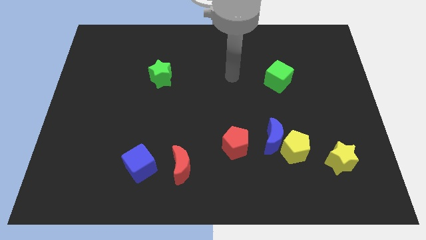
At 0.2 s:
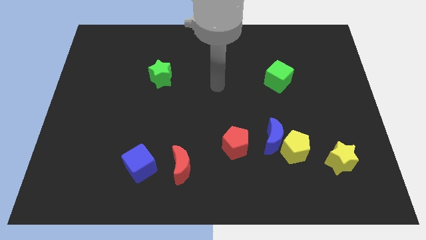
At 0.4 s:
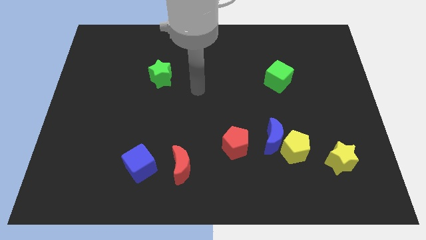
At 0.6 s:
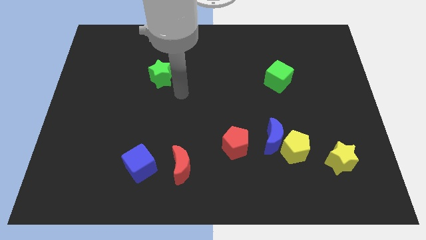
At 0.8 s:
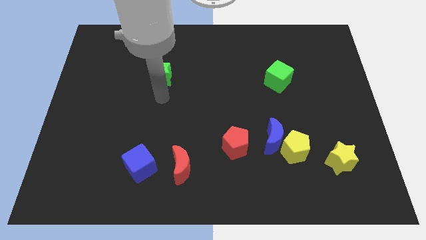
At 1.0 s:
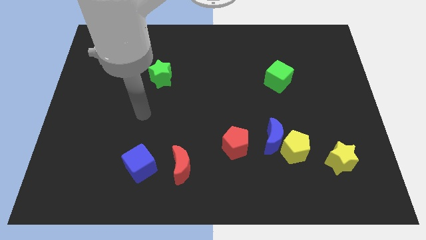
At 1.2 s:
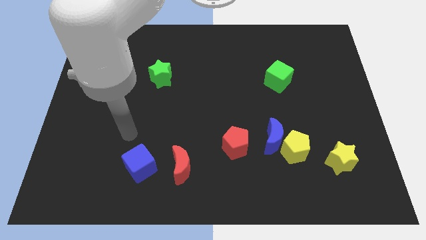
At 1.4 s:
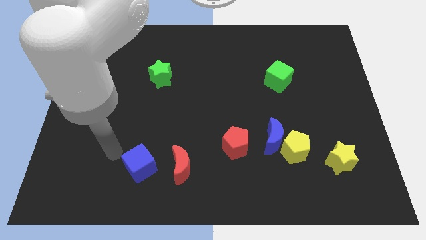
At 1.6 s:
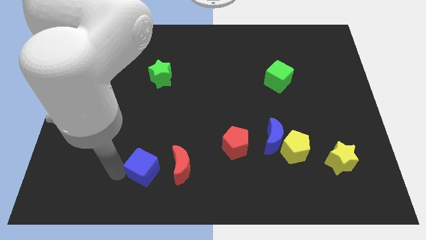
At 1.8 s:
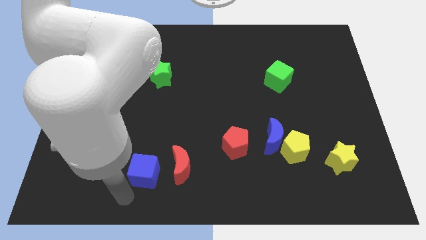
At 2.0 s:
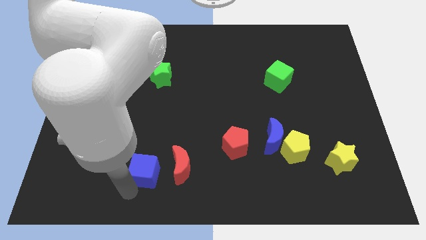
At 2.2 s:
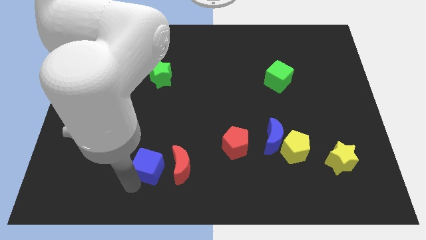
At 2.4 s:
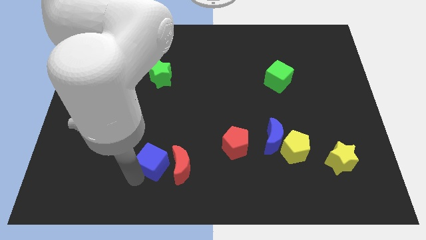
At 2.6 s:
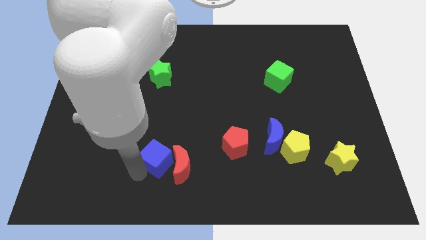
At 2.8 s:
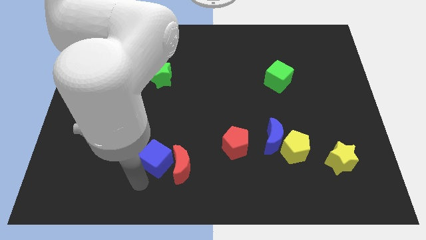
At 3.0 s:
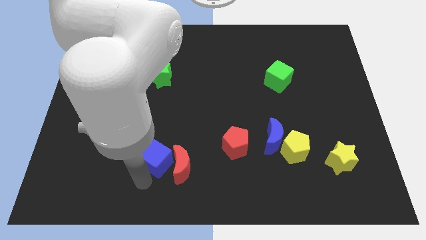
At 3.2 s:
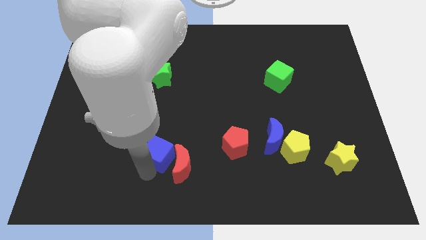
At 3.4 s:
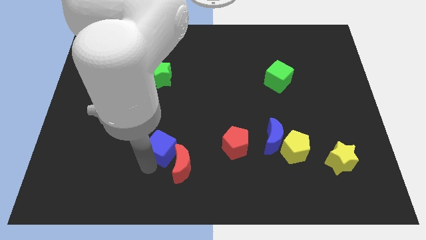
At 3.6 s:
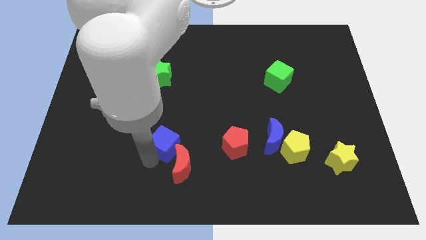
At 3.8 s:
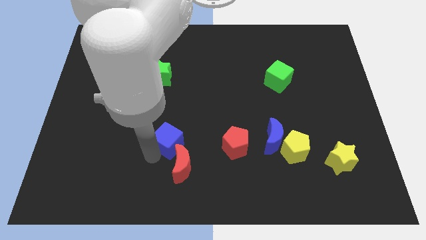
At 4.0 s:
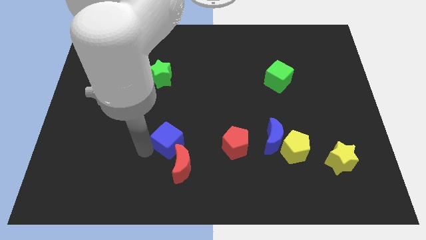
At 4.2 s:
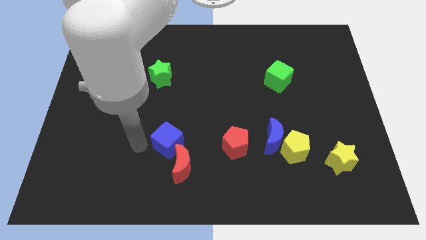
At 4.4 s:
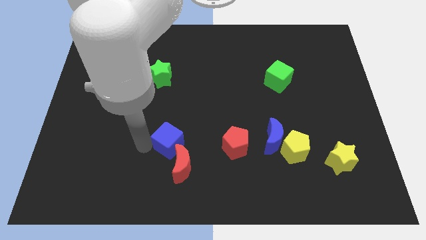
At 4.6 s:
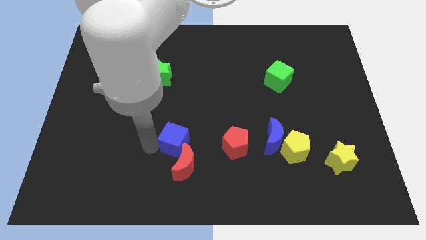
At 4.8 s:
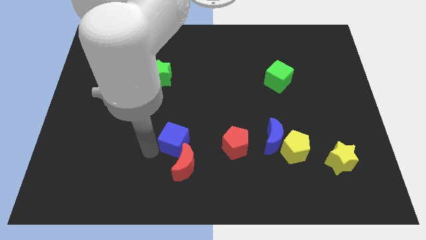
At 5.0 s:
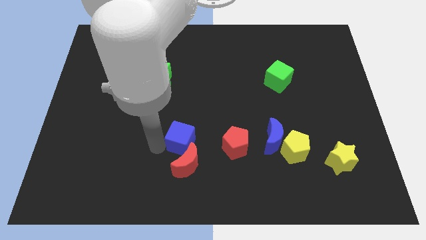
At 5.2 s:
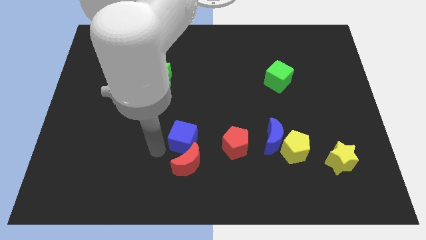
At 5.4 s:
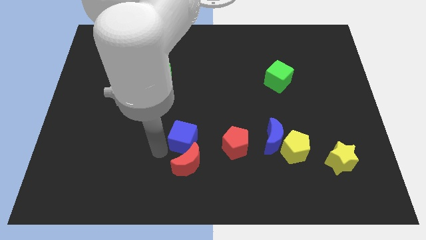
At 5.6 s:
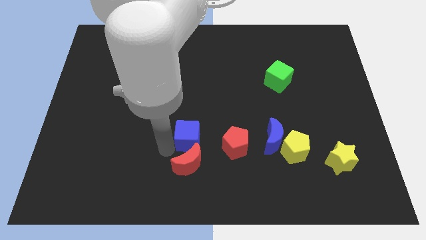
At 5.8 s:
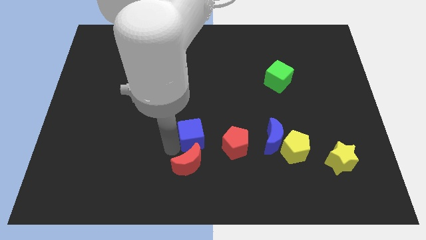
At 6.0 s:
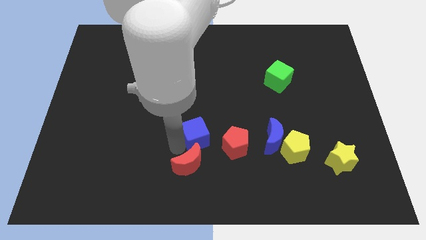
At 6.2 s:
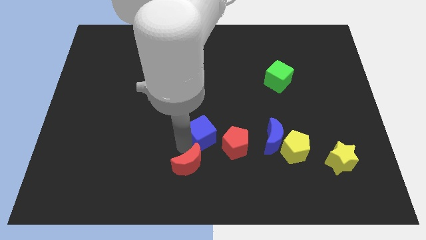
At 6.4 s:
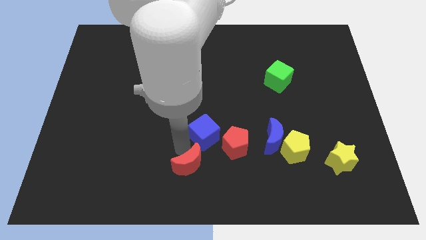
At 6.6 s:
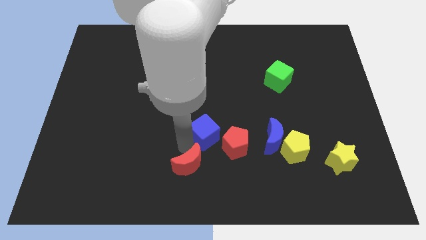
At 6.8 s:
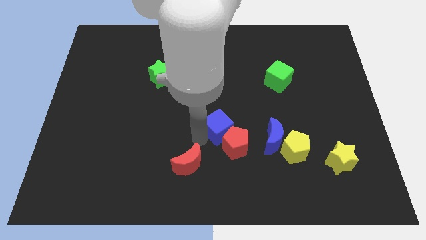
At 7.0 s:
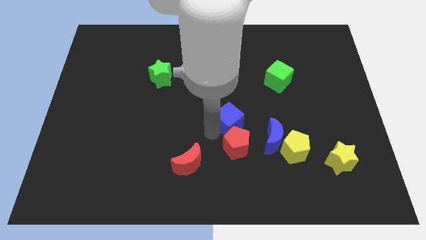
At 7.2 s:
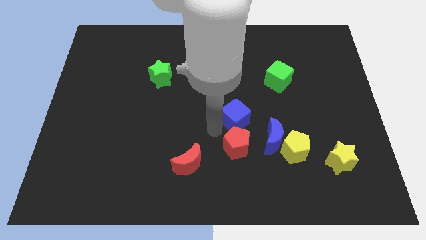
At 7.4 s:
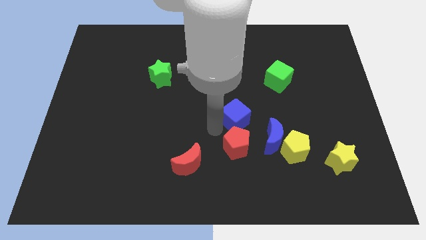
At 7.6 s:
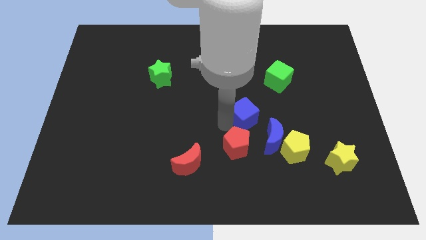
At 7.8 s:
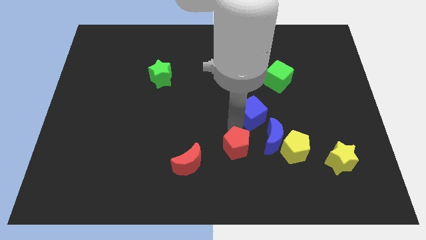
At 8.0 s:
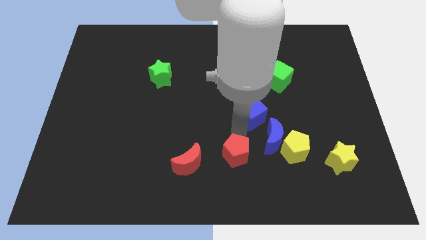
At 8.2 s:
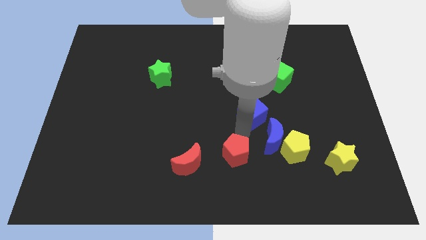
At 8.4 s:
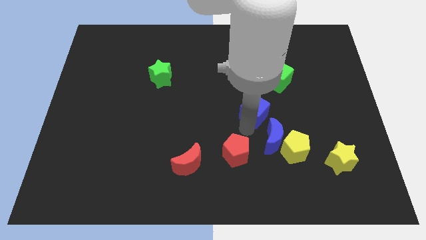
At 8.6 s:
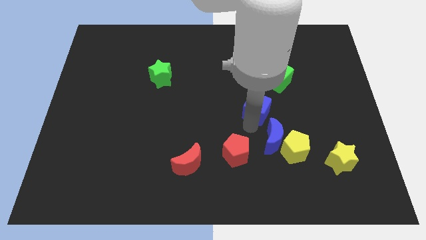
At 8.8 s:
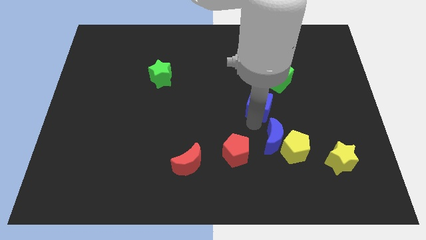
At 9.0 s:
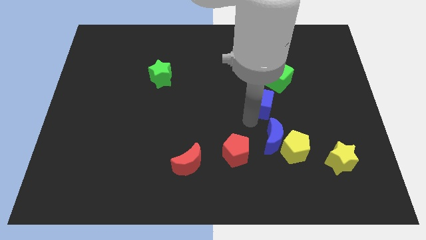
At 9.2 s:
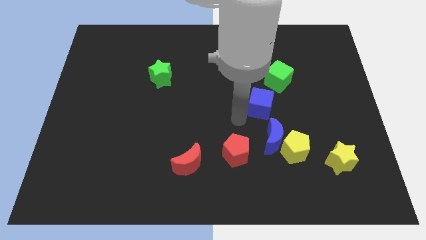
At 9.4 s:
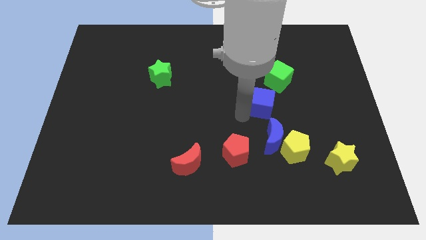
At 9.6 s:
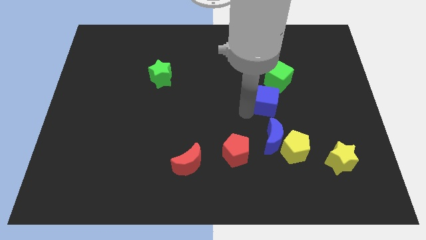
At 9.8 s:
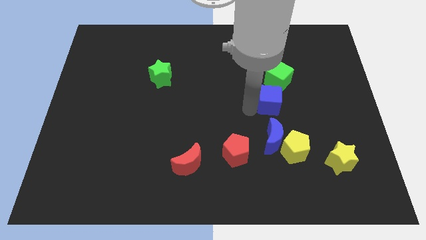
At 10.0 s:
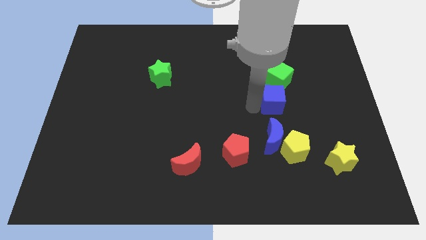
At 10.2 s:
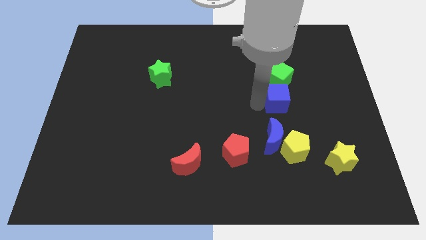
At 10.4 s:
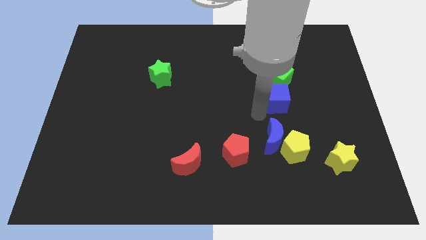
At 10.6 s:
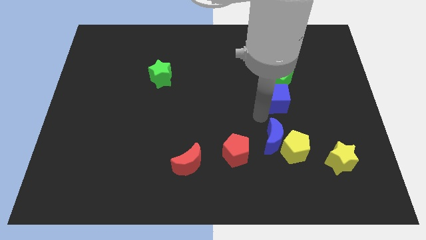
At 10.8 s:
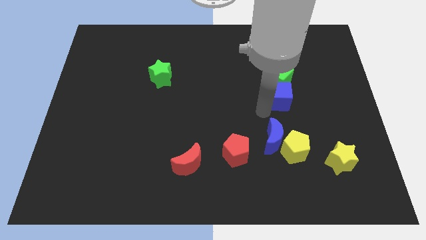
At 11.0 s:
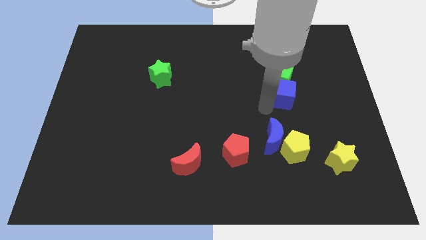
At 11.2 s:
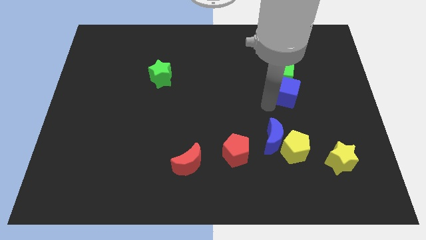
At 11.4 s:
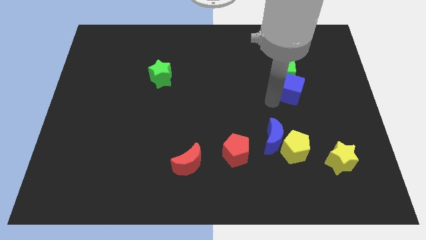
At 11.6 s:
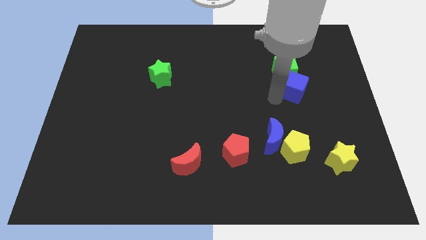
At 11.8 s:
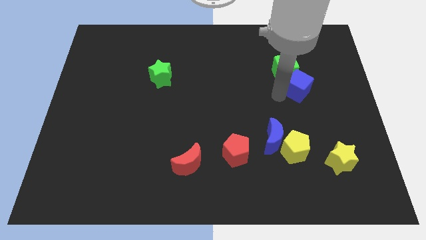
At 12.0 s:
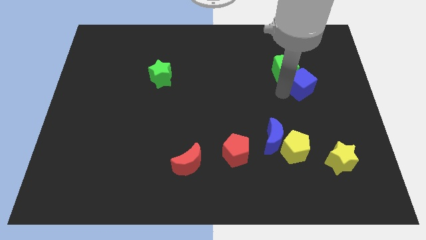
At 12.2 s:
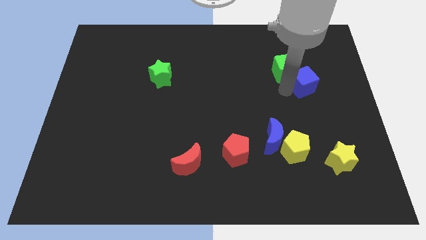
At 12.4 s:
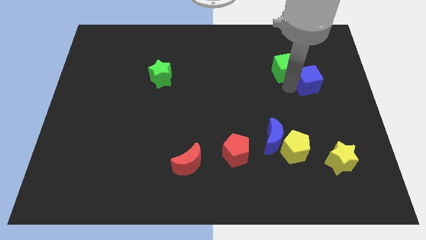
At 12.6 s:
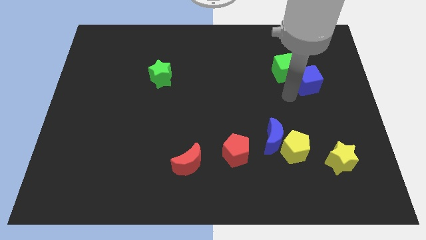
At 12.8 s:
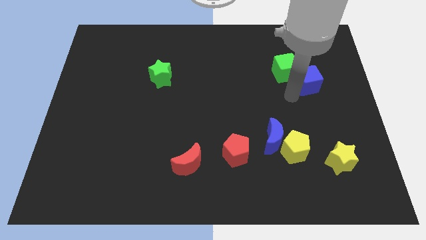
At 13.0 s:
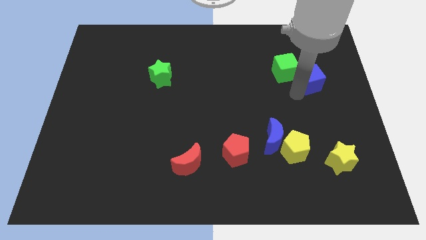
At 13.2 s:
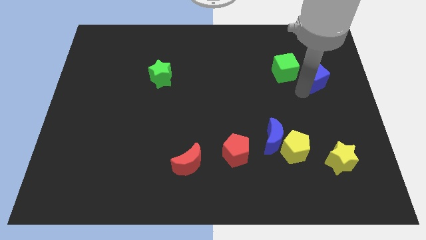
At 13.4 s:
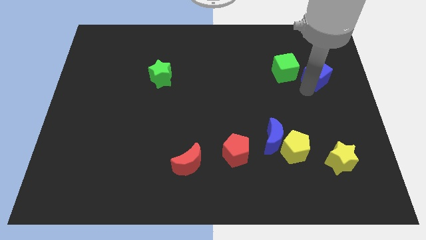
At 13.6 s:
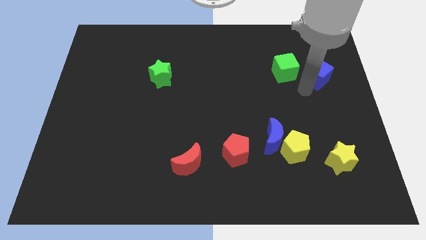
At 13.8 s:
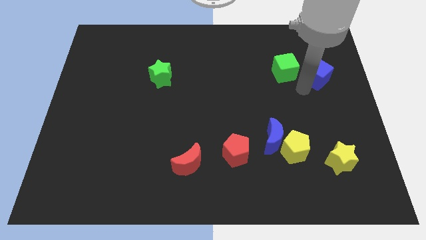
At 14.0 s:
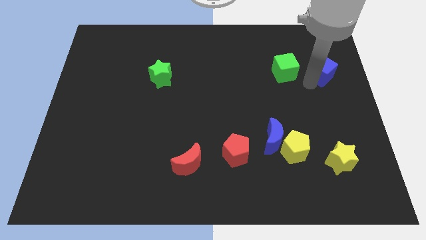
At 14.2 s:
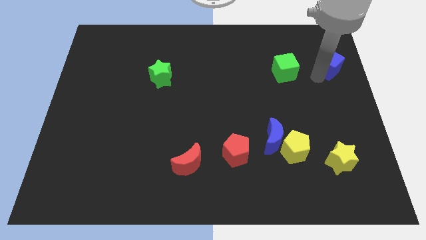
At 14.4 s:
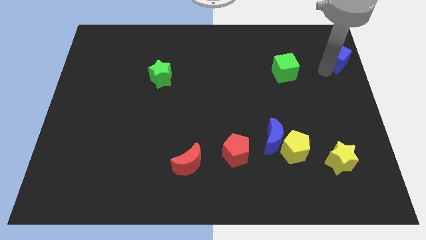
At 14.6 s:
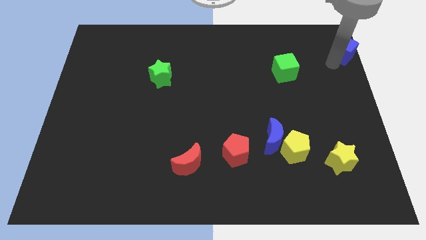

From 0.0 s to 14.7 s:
slide the blue cube to the upper right corner
